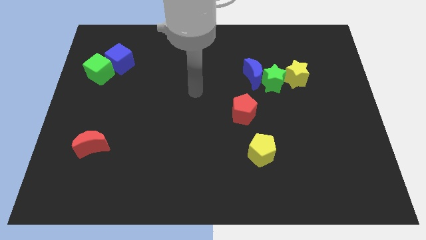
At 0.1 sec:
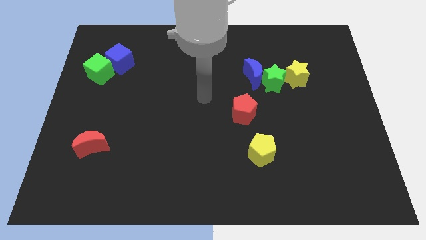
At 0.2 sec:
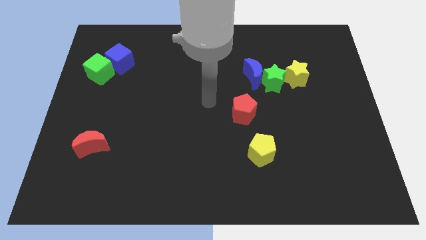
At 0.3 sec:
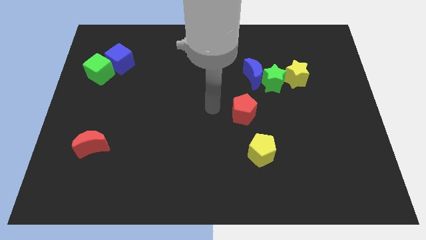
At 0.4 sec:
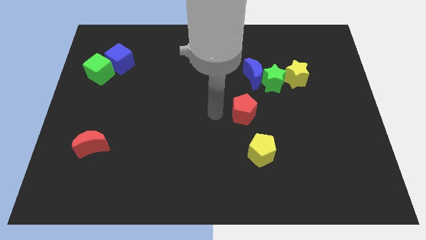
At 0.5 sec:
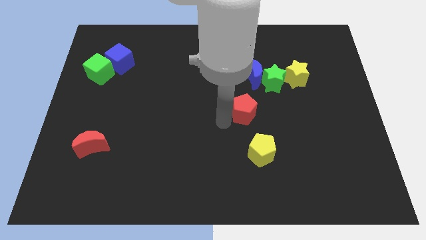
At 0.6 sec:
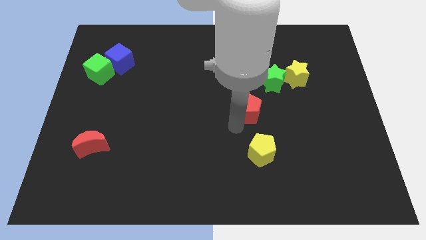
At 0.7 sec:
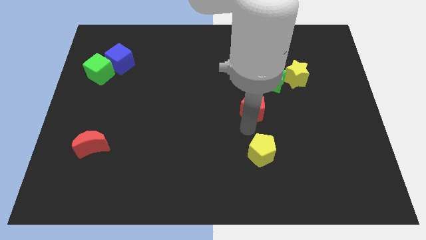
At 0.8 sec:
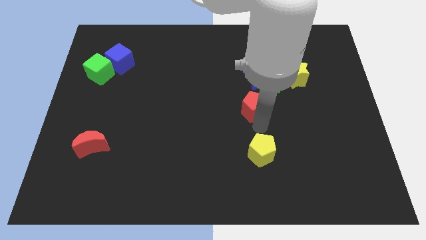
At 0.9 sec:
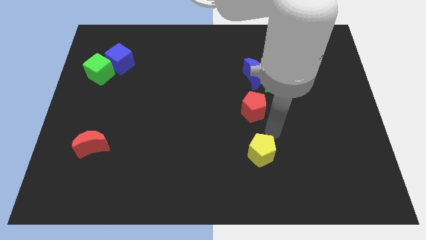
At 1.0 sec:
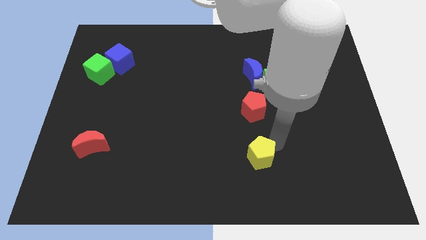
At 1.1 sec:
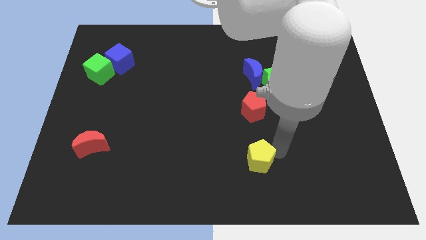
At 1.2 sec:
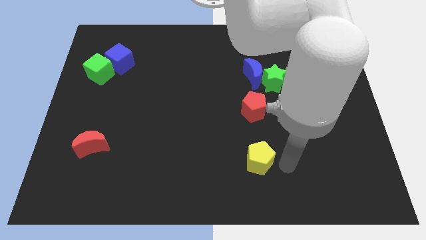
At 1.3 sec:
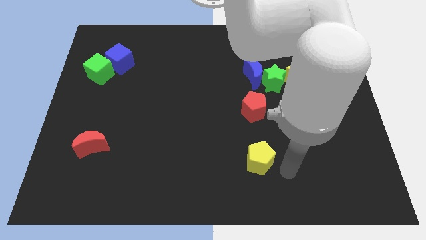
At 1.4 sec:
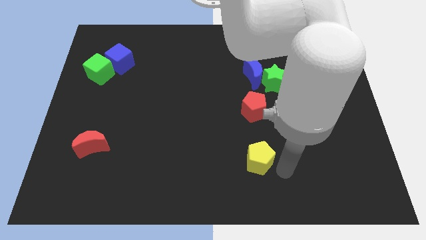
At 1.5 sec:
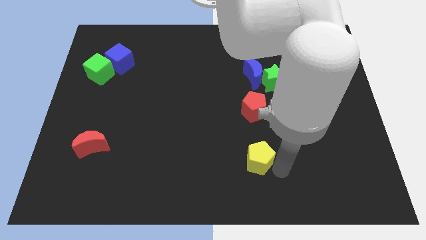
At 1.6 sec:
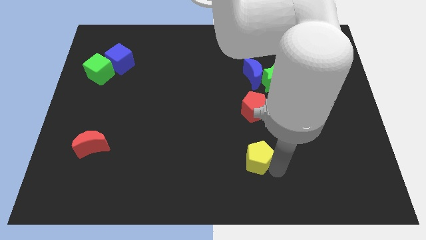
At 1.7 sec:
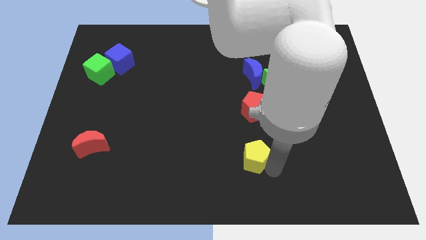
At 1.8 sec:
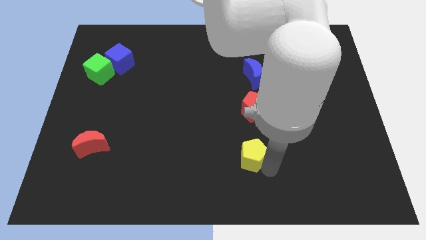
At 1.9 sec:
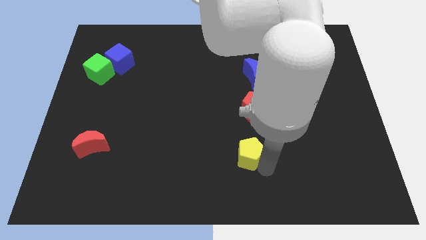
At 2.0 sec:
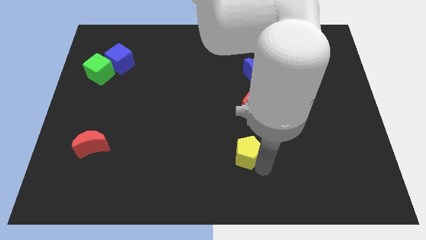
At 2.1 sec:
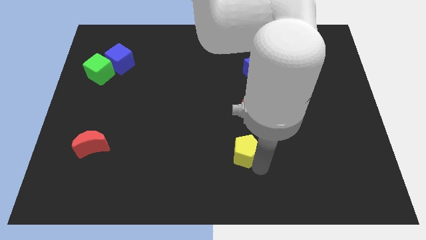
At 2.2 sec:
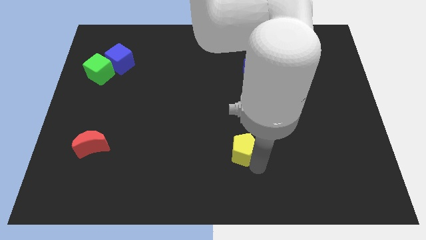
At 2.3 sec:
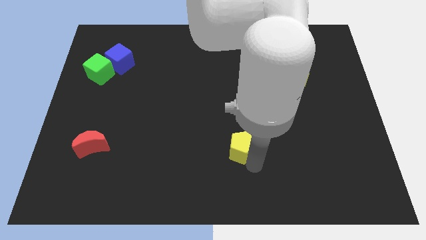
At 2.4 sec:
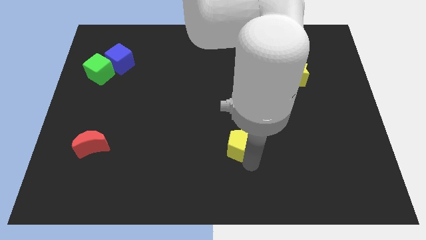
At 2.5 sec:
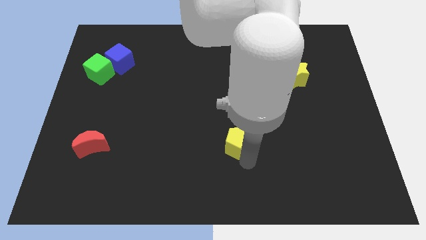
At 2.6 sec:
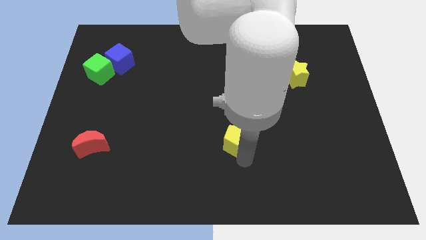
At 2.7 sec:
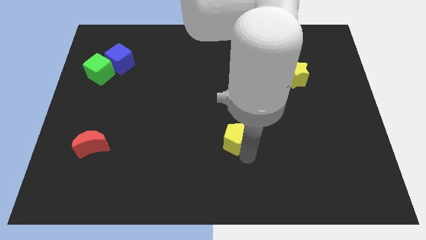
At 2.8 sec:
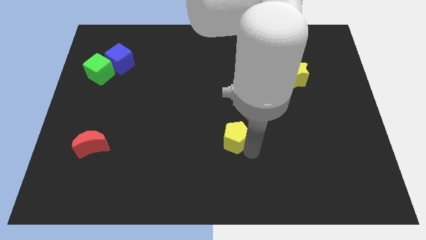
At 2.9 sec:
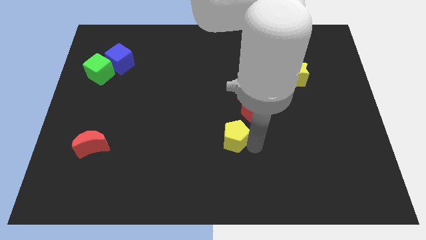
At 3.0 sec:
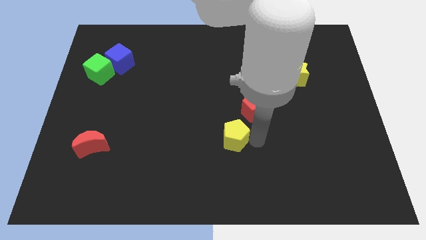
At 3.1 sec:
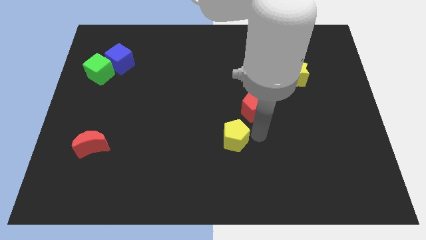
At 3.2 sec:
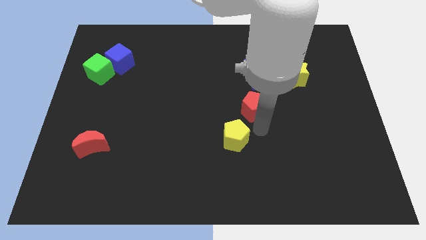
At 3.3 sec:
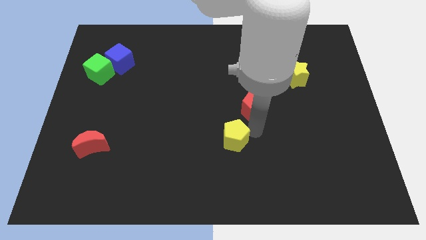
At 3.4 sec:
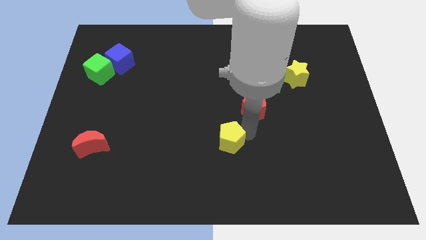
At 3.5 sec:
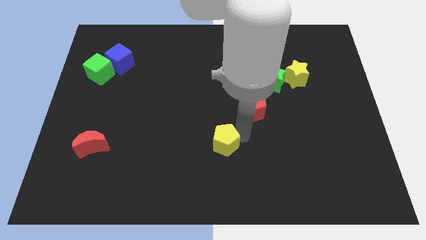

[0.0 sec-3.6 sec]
slide the yellow pentagon a little to the left

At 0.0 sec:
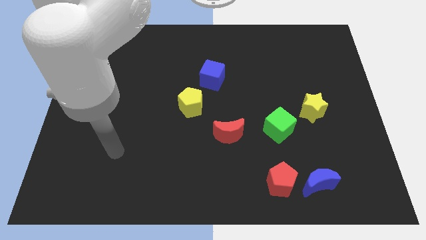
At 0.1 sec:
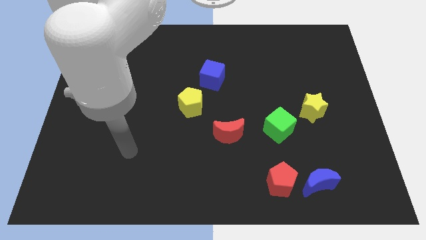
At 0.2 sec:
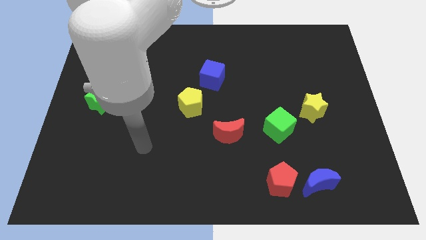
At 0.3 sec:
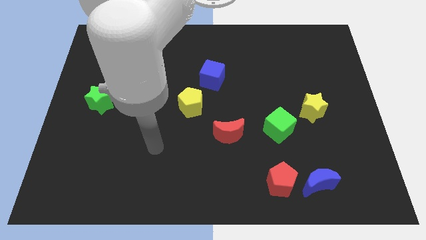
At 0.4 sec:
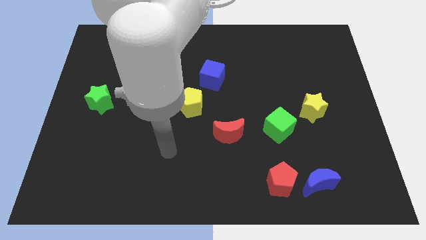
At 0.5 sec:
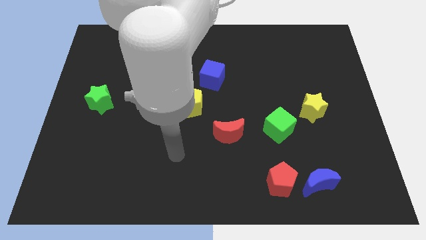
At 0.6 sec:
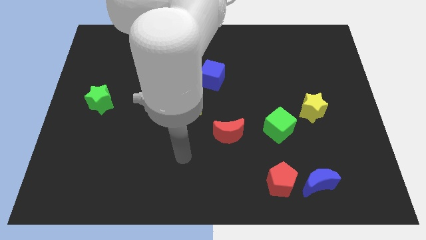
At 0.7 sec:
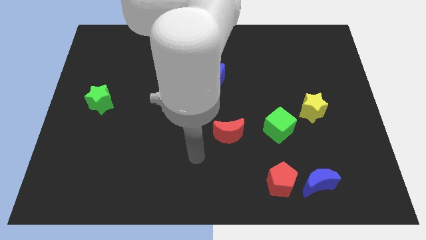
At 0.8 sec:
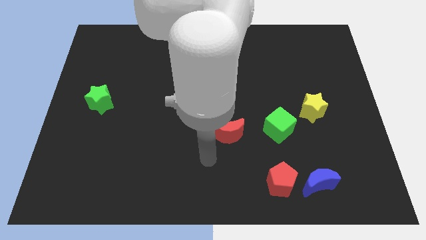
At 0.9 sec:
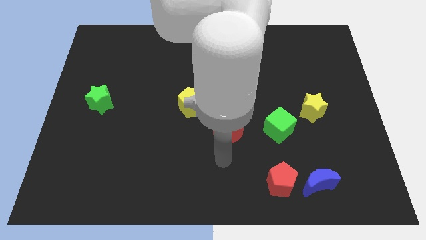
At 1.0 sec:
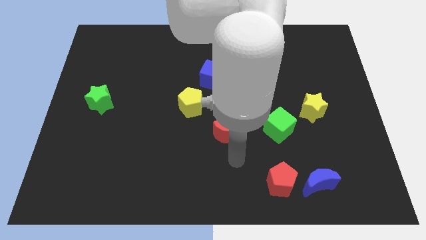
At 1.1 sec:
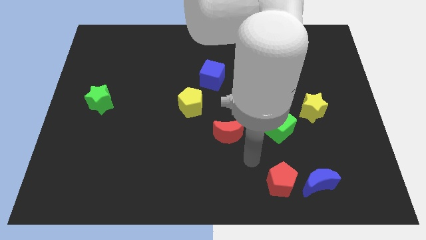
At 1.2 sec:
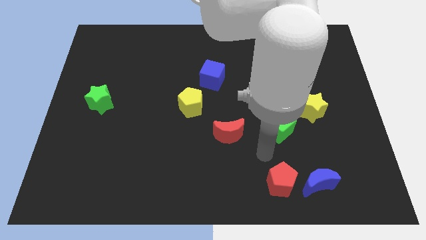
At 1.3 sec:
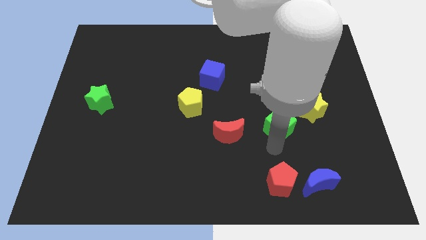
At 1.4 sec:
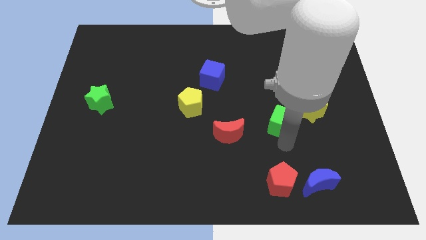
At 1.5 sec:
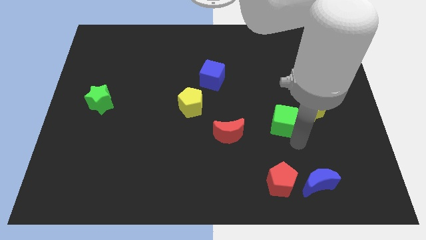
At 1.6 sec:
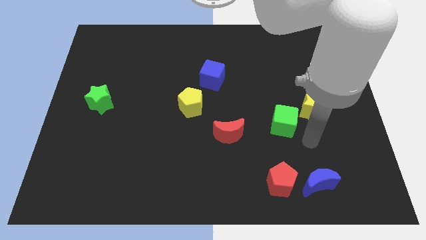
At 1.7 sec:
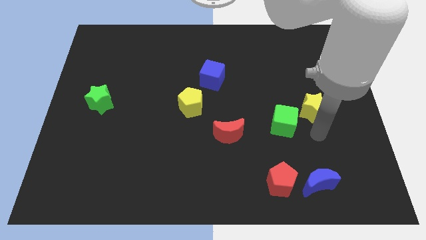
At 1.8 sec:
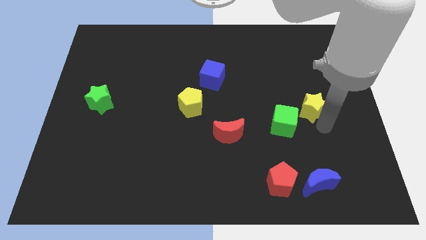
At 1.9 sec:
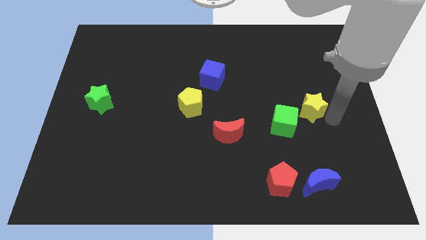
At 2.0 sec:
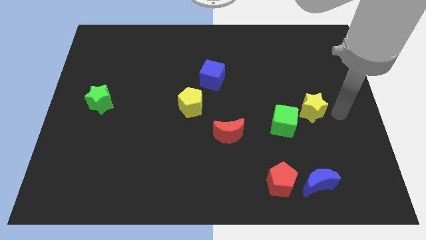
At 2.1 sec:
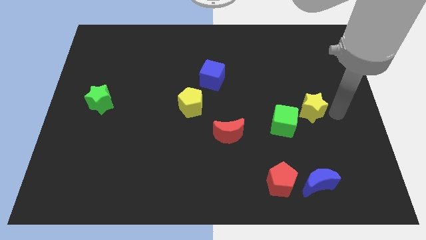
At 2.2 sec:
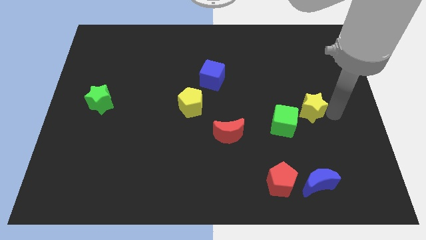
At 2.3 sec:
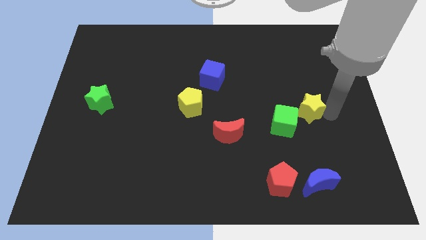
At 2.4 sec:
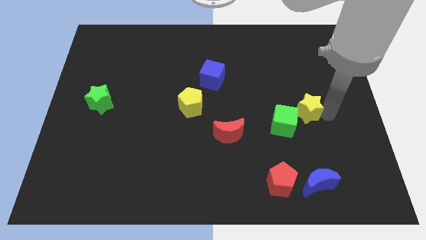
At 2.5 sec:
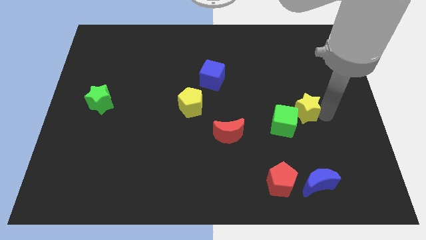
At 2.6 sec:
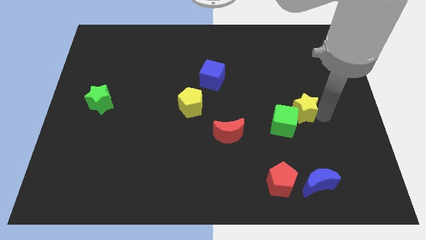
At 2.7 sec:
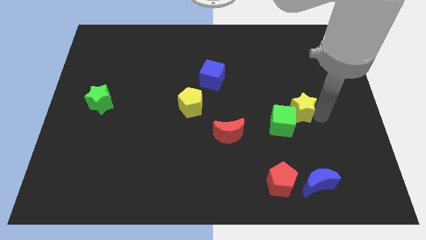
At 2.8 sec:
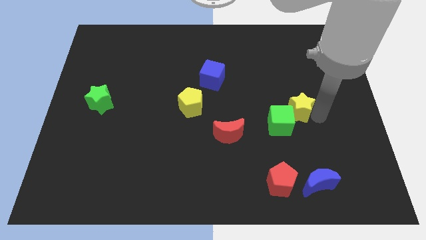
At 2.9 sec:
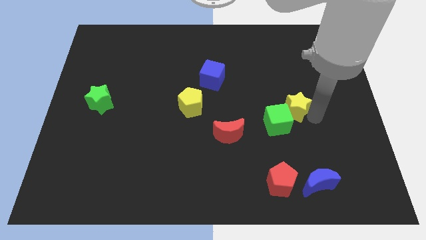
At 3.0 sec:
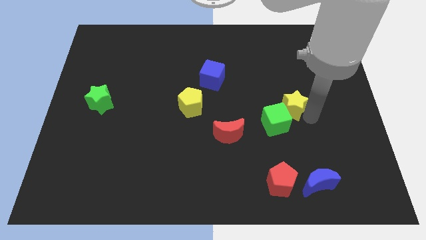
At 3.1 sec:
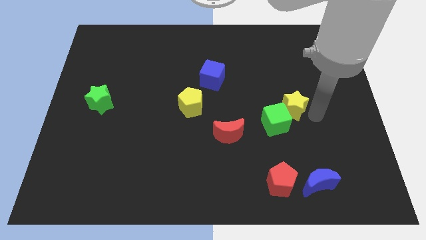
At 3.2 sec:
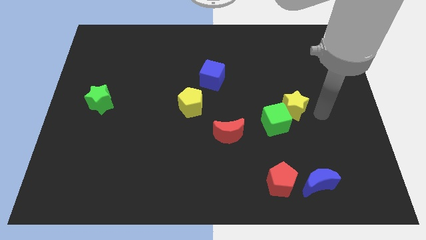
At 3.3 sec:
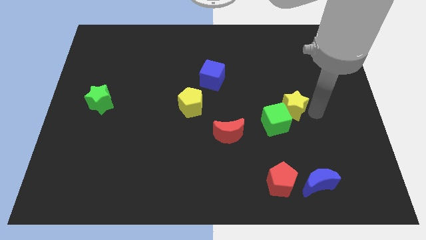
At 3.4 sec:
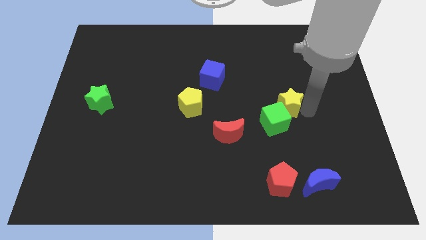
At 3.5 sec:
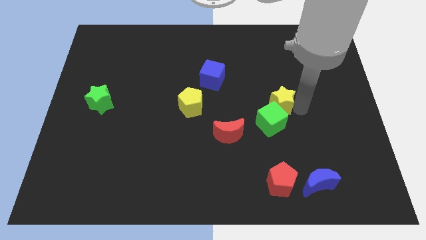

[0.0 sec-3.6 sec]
slide the yellow star a bit left

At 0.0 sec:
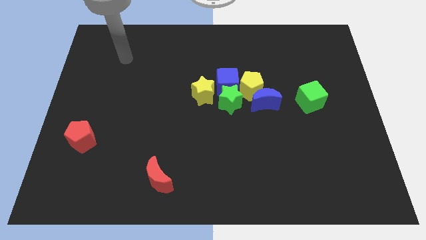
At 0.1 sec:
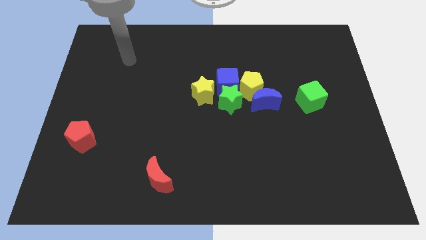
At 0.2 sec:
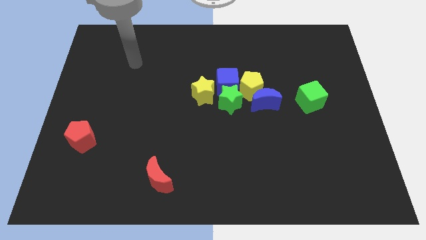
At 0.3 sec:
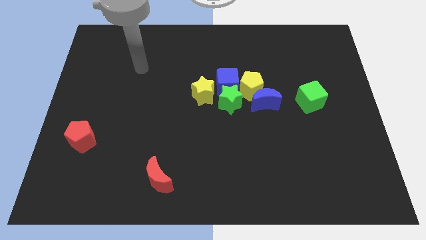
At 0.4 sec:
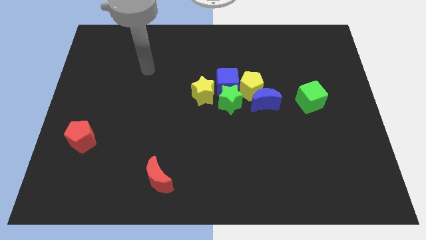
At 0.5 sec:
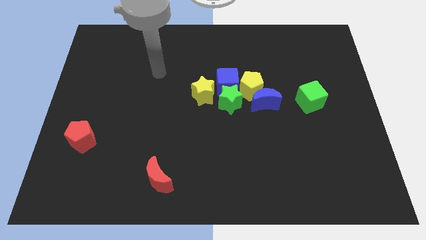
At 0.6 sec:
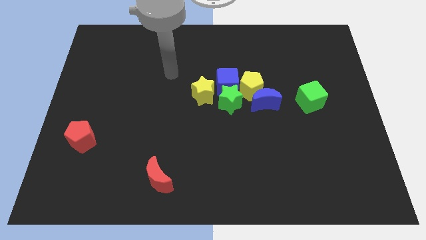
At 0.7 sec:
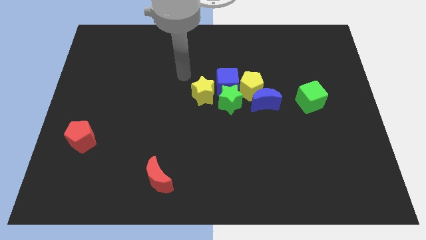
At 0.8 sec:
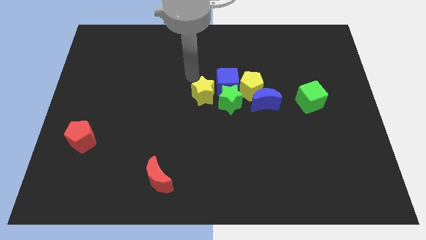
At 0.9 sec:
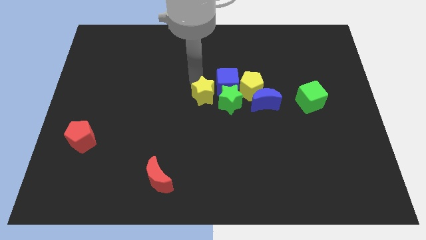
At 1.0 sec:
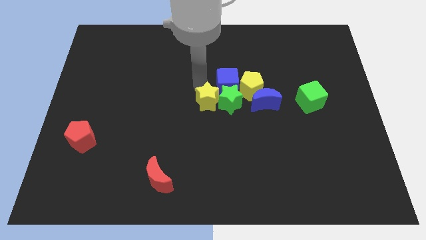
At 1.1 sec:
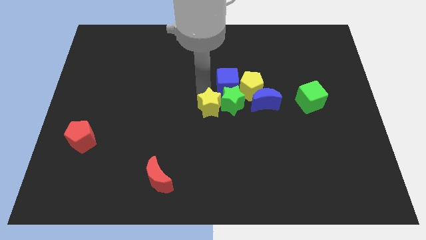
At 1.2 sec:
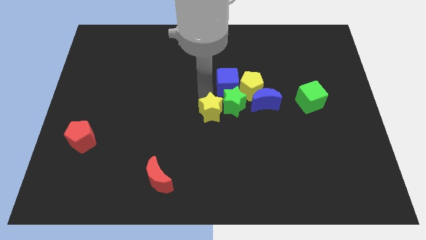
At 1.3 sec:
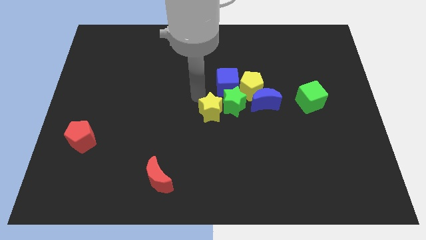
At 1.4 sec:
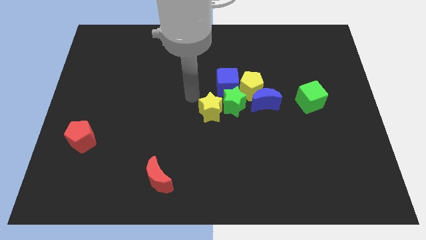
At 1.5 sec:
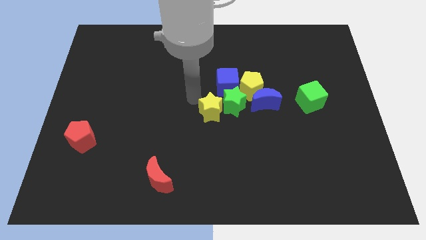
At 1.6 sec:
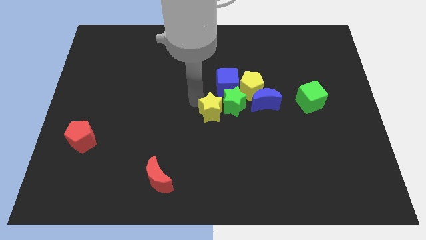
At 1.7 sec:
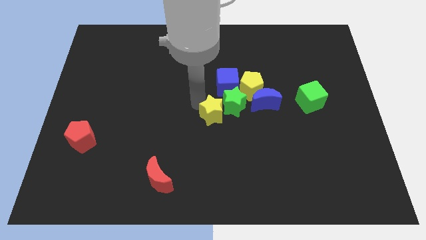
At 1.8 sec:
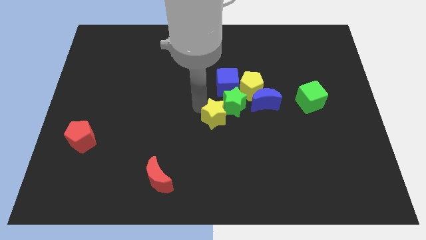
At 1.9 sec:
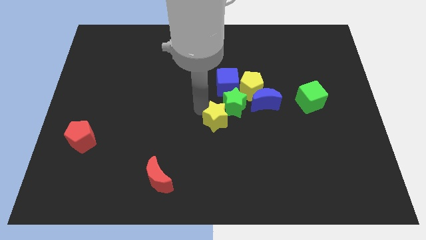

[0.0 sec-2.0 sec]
slightly push the yellow star downwards and then right
